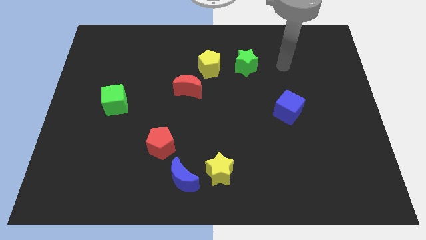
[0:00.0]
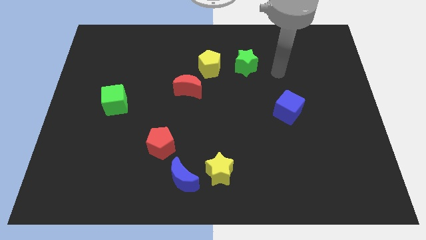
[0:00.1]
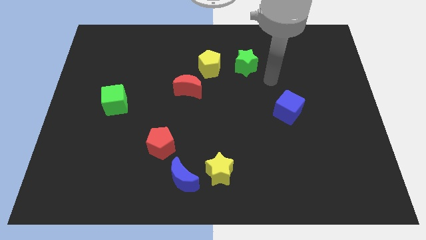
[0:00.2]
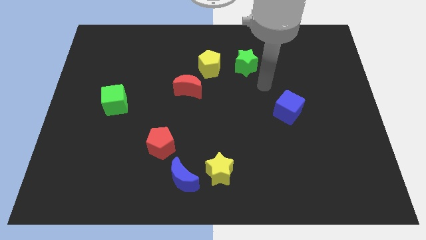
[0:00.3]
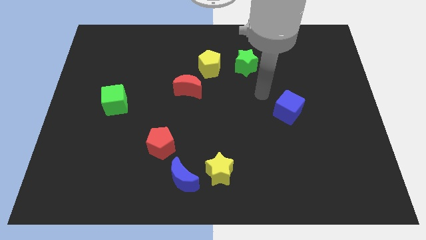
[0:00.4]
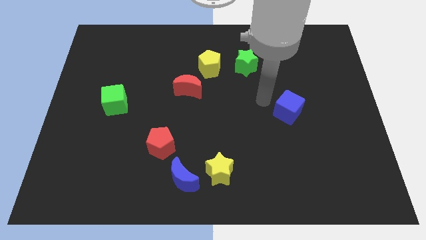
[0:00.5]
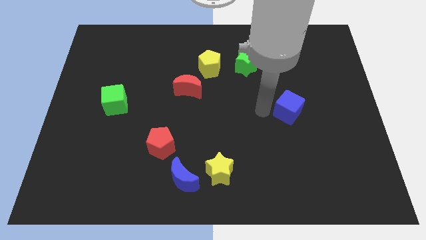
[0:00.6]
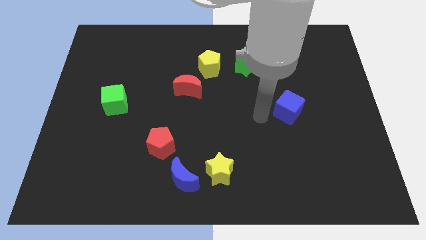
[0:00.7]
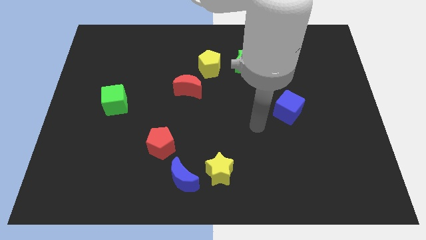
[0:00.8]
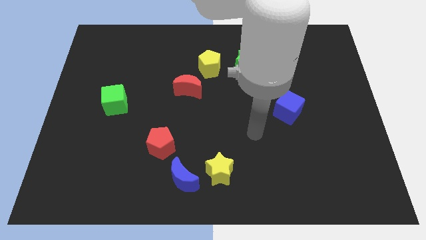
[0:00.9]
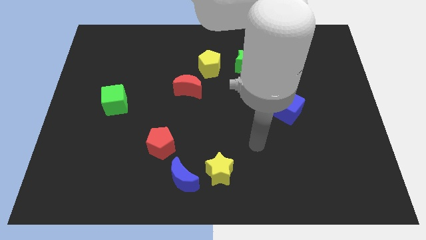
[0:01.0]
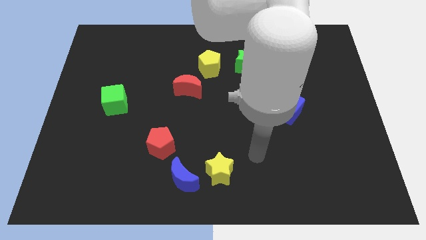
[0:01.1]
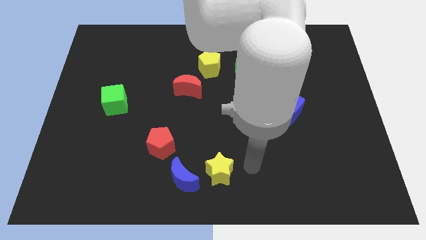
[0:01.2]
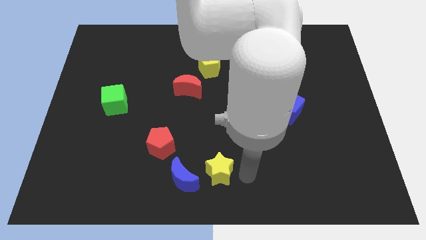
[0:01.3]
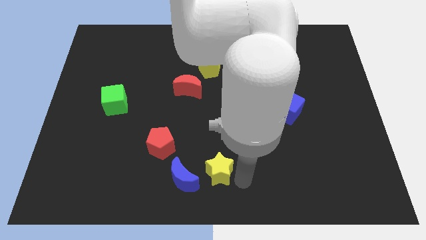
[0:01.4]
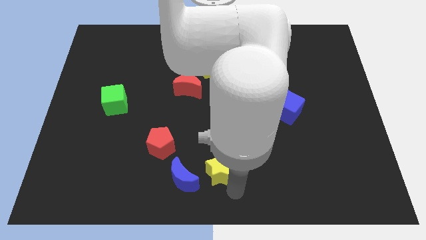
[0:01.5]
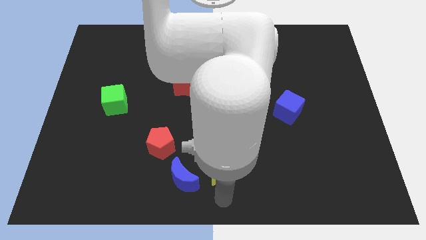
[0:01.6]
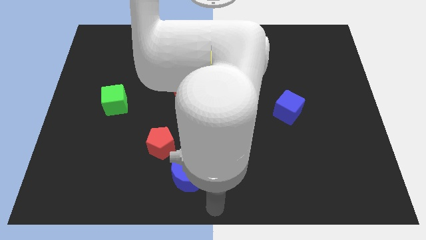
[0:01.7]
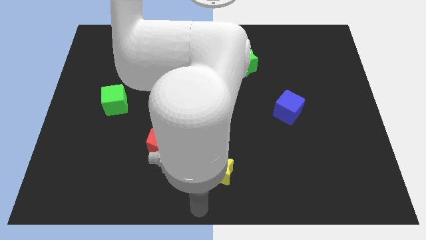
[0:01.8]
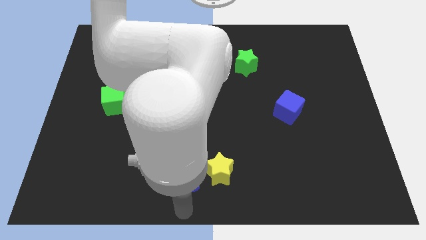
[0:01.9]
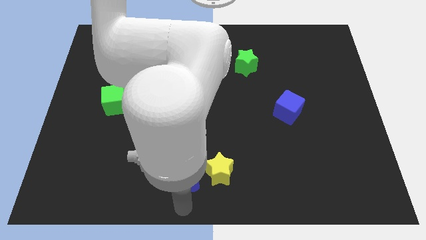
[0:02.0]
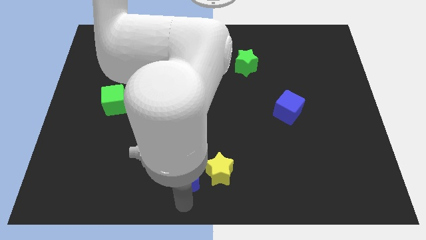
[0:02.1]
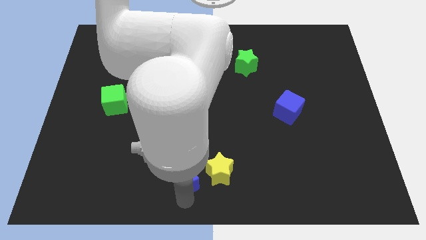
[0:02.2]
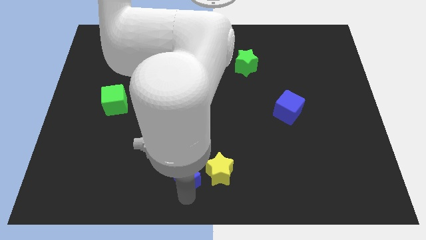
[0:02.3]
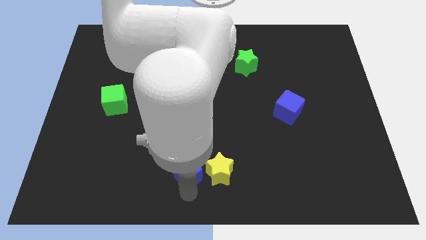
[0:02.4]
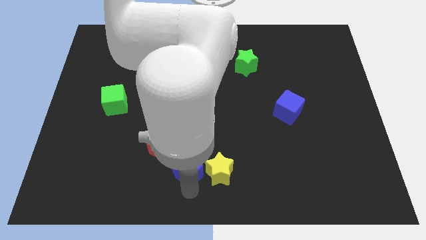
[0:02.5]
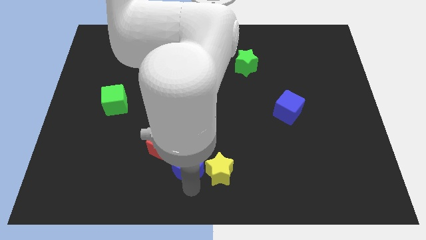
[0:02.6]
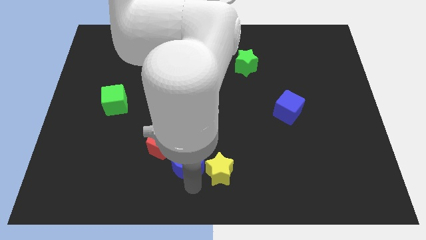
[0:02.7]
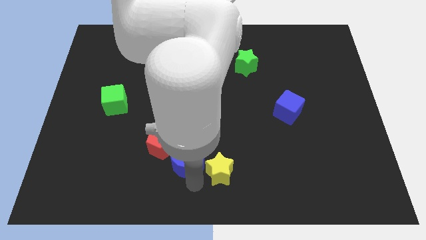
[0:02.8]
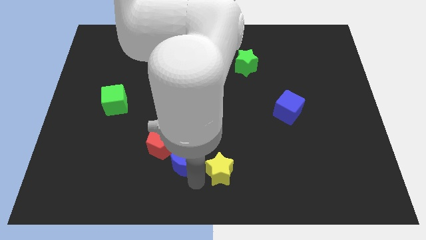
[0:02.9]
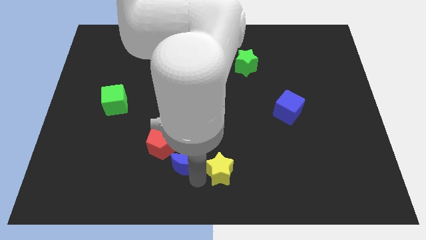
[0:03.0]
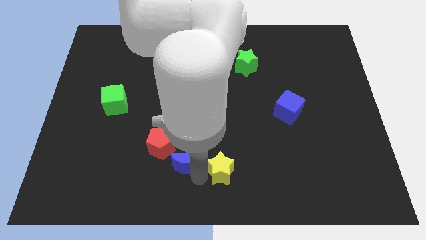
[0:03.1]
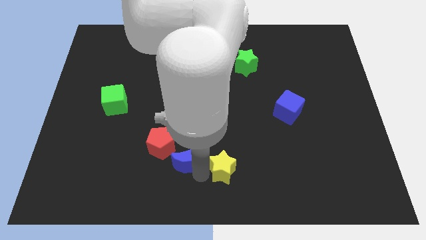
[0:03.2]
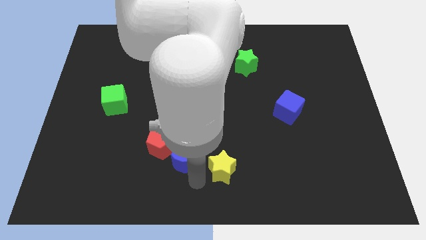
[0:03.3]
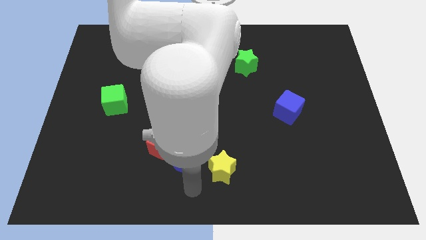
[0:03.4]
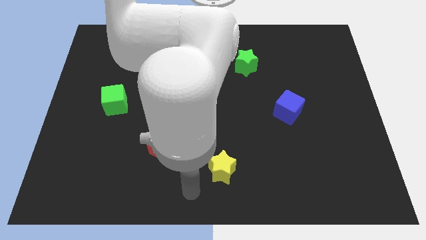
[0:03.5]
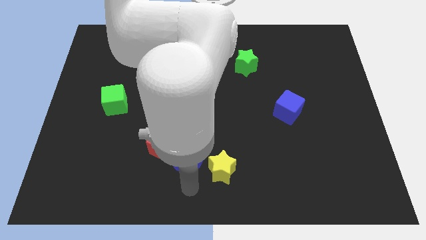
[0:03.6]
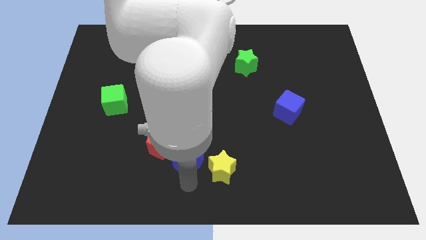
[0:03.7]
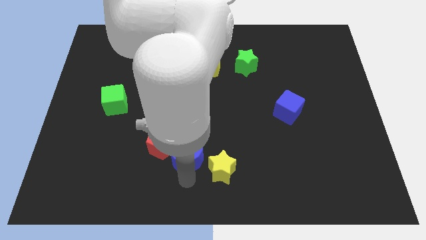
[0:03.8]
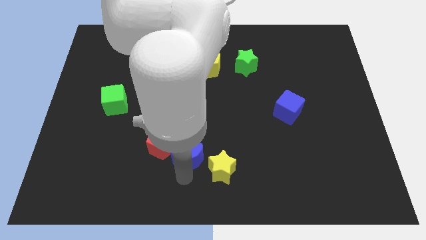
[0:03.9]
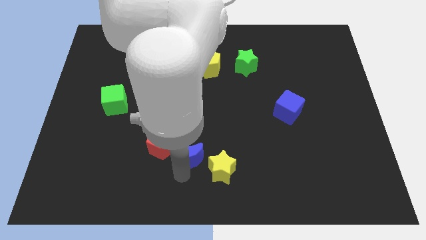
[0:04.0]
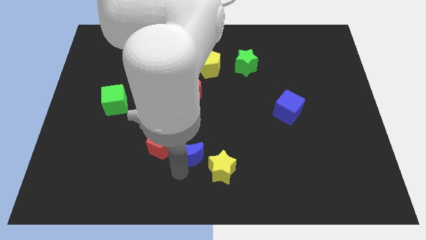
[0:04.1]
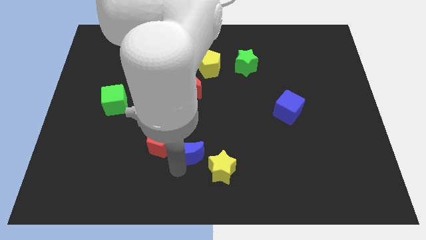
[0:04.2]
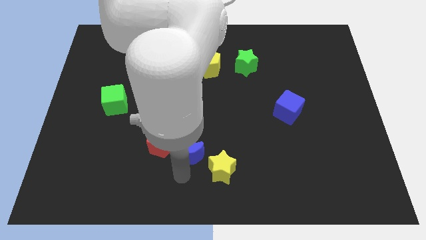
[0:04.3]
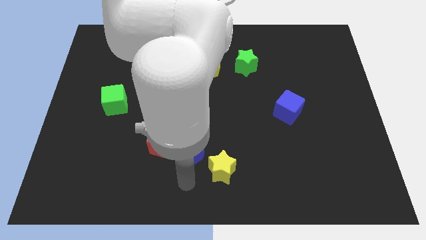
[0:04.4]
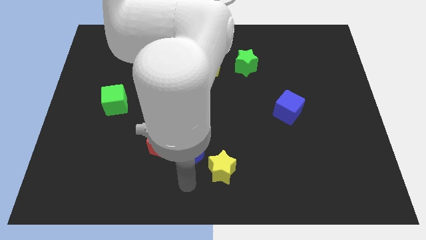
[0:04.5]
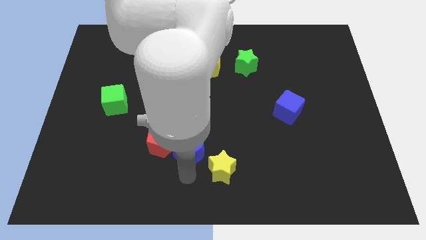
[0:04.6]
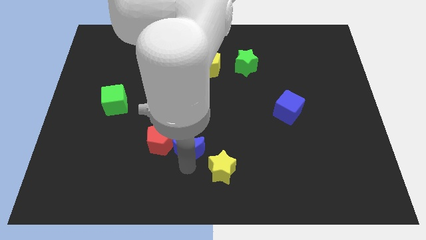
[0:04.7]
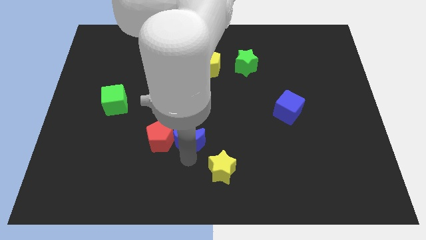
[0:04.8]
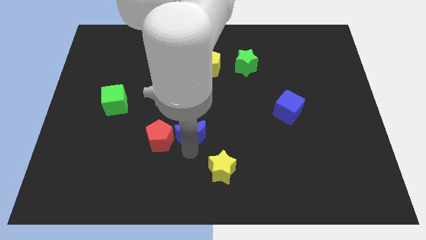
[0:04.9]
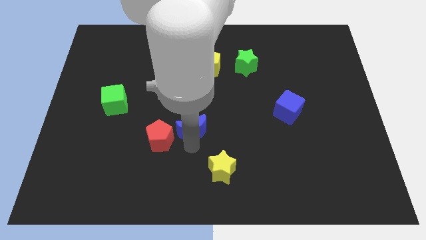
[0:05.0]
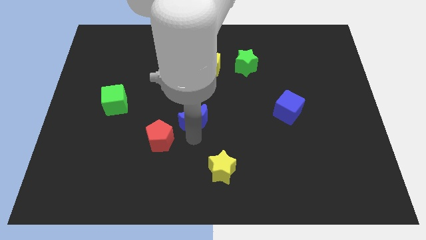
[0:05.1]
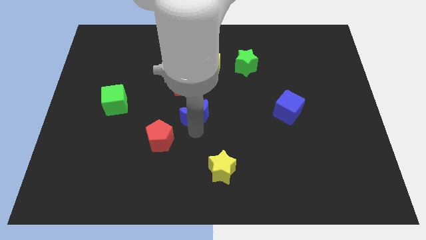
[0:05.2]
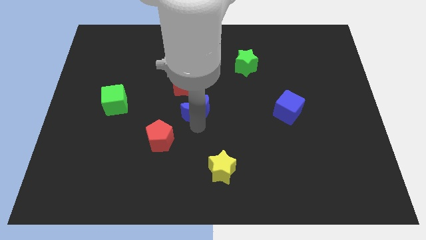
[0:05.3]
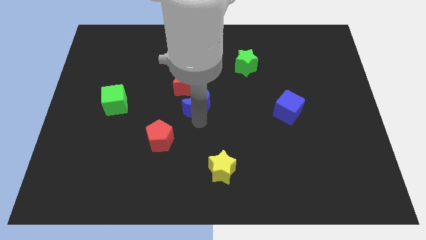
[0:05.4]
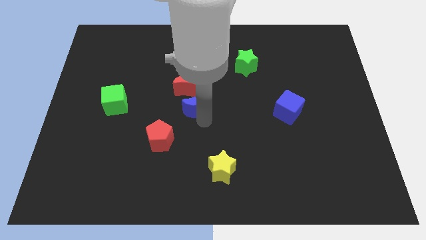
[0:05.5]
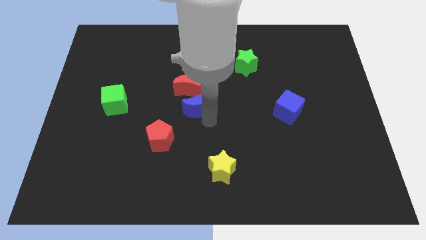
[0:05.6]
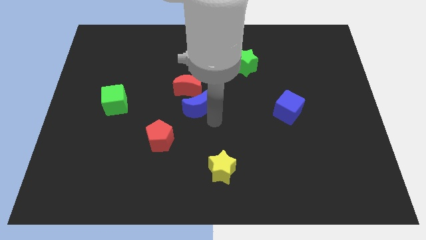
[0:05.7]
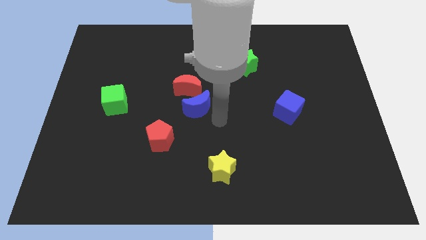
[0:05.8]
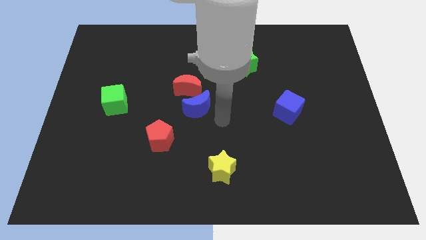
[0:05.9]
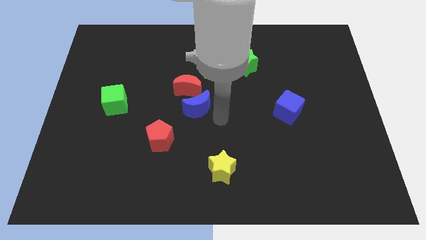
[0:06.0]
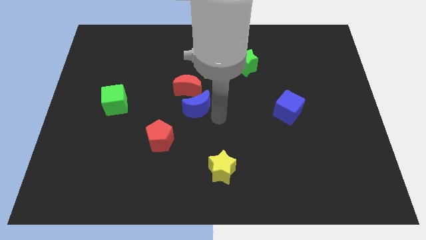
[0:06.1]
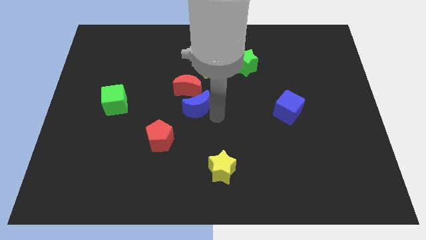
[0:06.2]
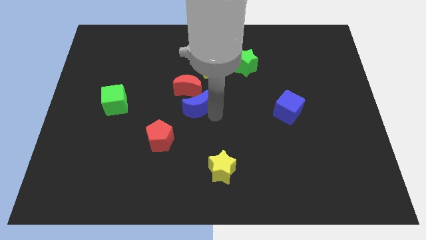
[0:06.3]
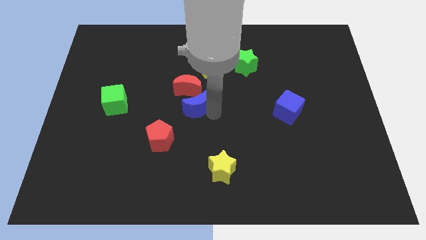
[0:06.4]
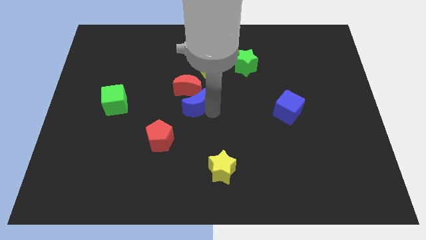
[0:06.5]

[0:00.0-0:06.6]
put the blue moon next to the red moon

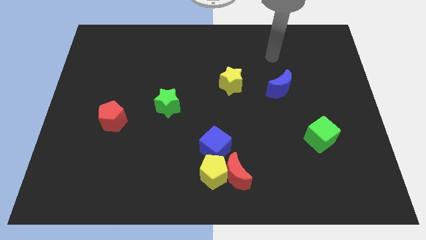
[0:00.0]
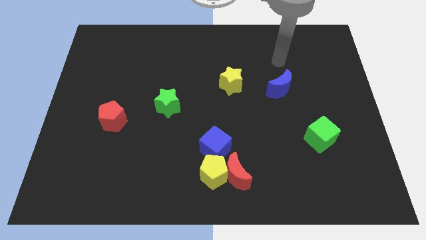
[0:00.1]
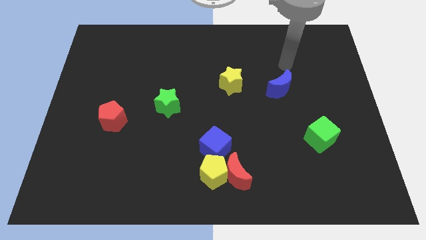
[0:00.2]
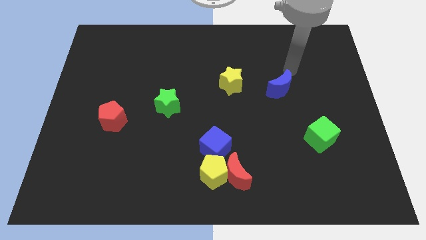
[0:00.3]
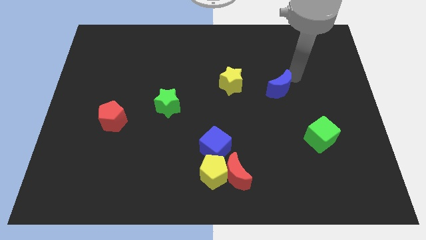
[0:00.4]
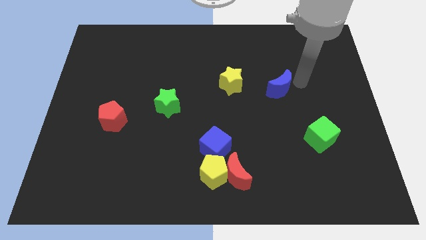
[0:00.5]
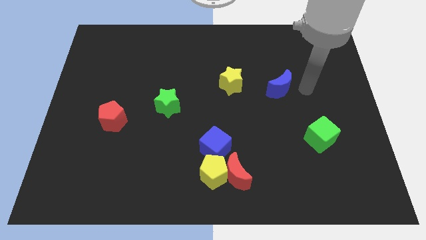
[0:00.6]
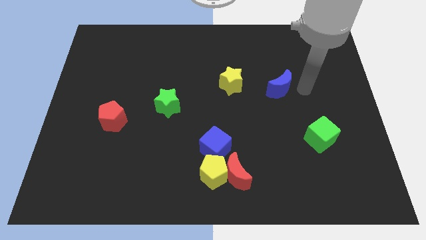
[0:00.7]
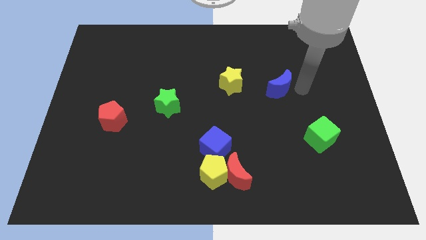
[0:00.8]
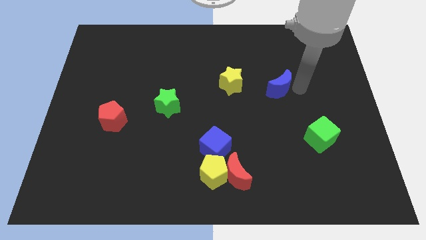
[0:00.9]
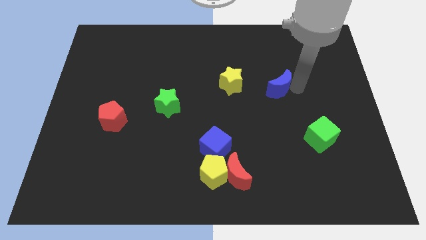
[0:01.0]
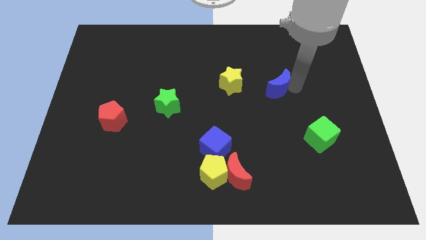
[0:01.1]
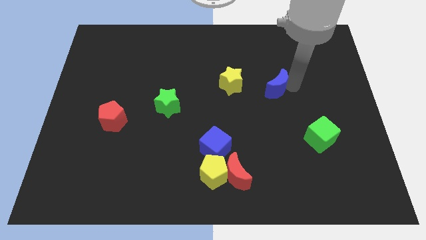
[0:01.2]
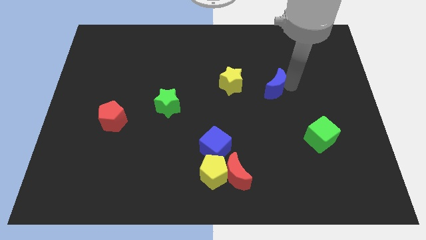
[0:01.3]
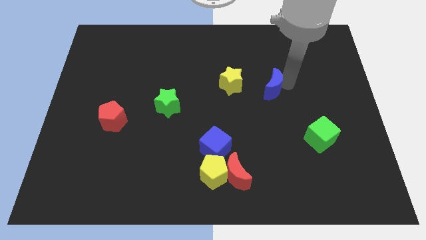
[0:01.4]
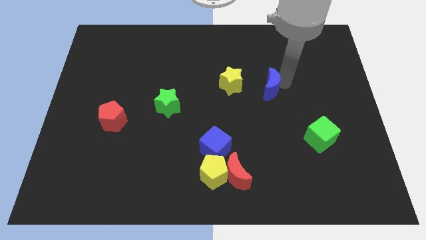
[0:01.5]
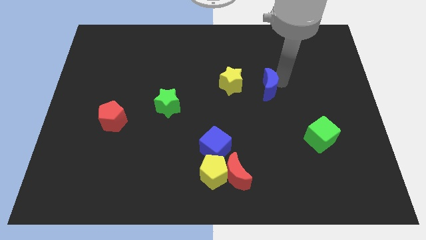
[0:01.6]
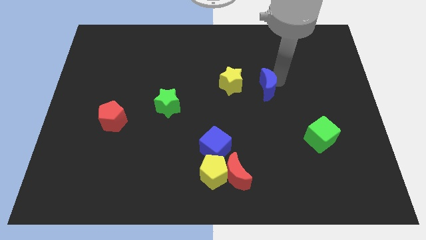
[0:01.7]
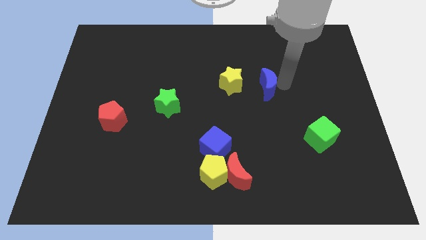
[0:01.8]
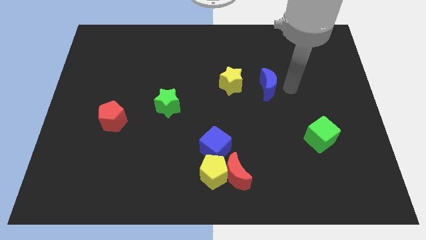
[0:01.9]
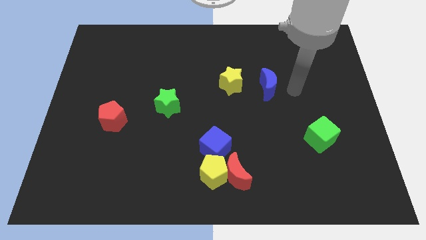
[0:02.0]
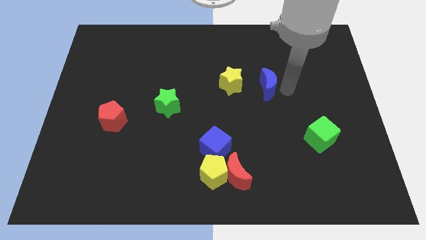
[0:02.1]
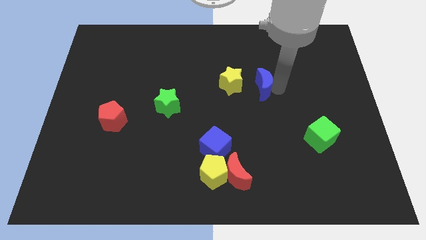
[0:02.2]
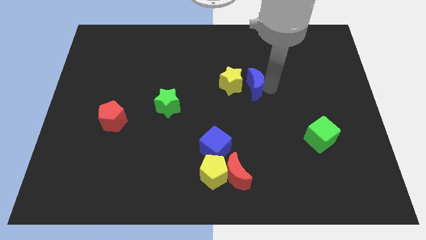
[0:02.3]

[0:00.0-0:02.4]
push the blue moon close to the yellow star
